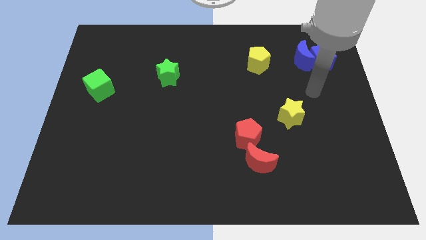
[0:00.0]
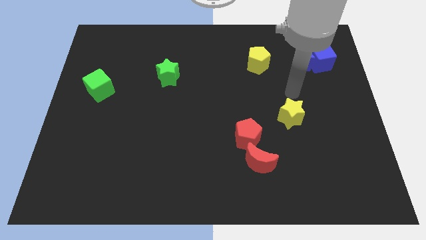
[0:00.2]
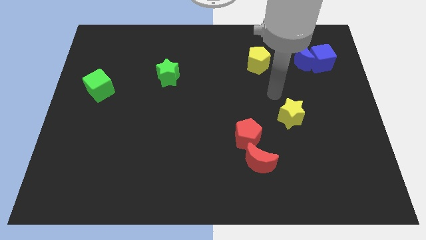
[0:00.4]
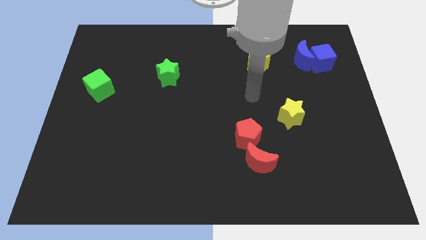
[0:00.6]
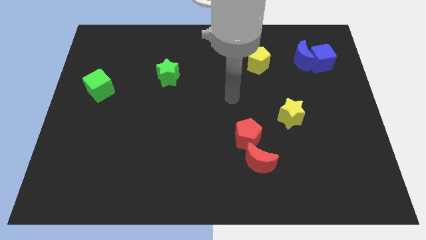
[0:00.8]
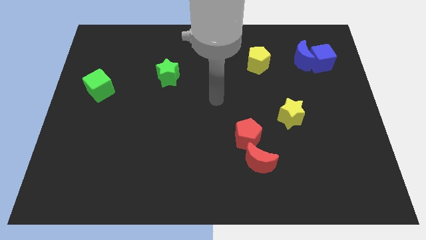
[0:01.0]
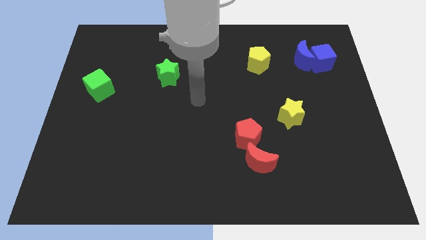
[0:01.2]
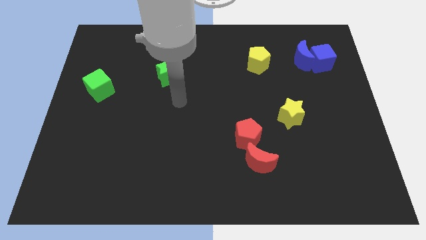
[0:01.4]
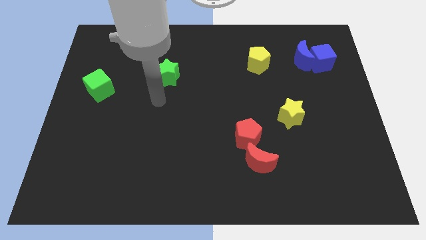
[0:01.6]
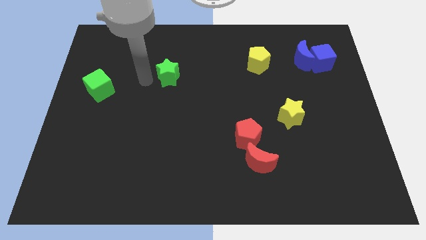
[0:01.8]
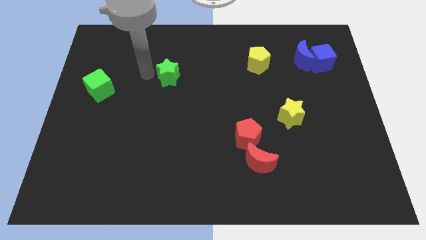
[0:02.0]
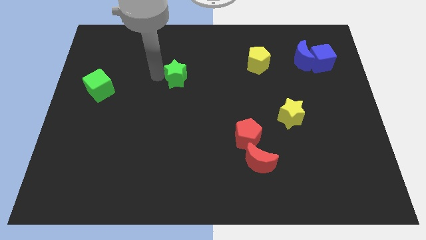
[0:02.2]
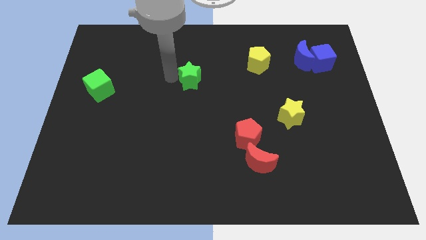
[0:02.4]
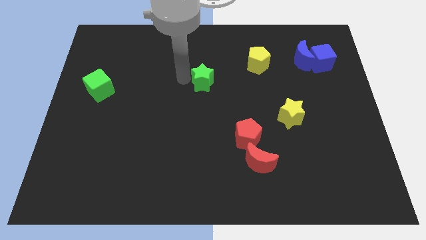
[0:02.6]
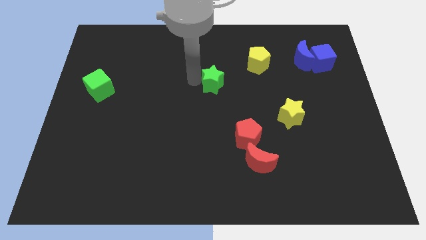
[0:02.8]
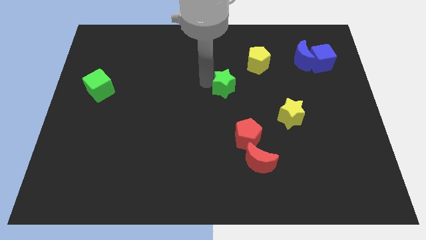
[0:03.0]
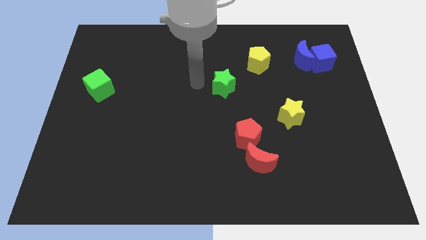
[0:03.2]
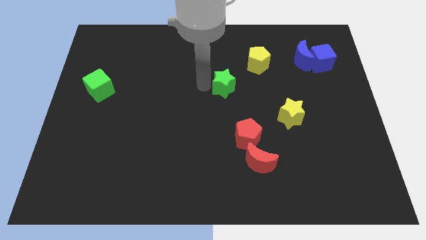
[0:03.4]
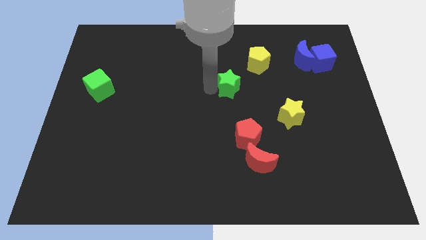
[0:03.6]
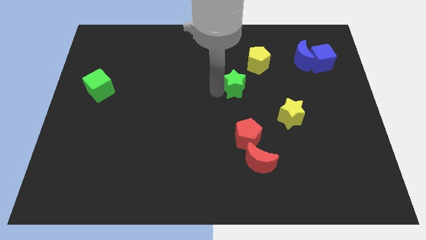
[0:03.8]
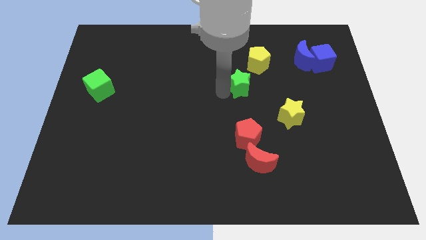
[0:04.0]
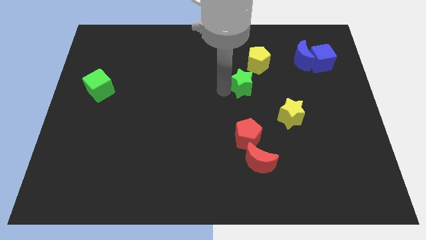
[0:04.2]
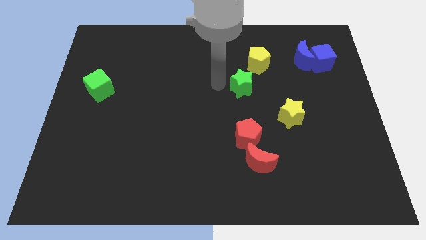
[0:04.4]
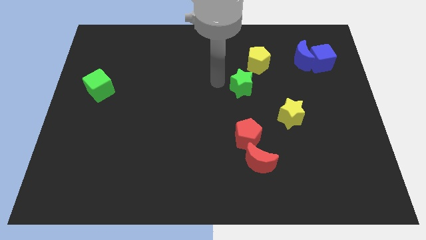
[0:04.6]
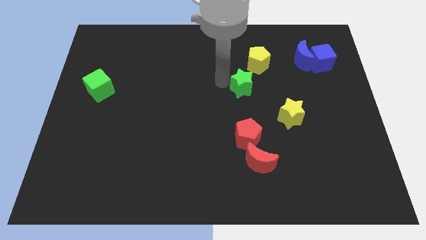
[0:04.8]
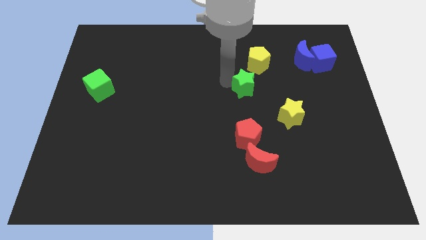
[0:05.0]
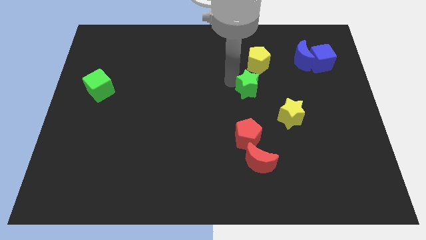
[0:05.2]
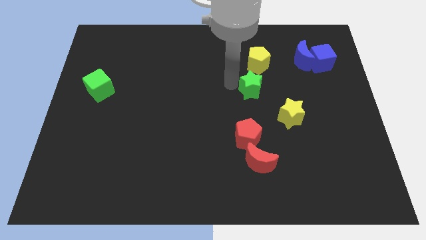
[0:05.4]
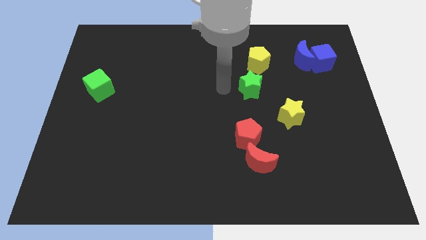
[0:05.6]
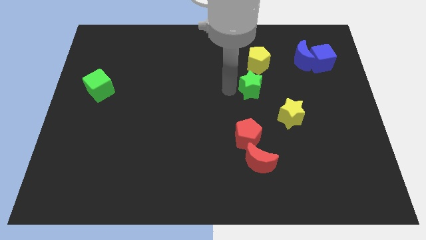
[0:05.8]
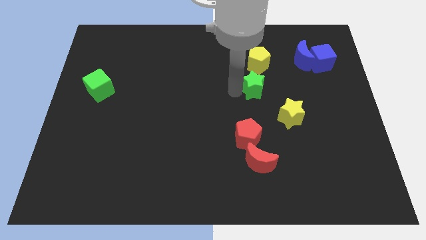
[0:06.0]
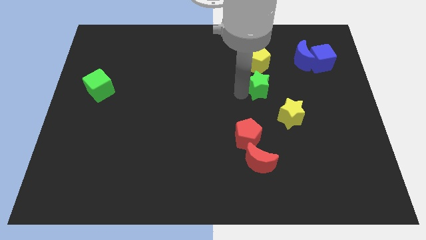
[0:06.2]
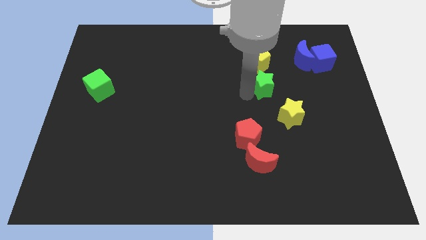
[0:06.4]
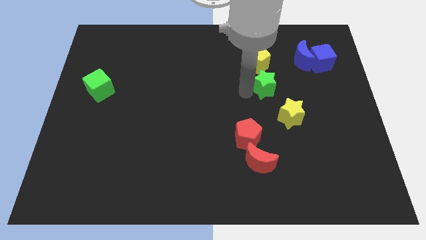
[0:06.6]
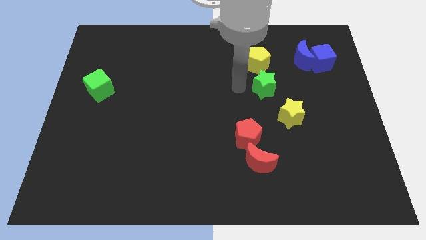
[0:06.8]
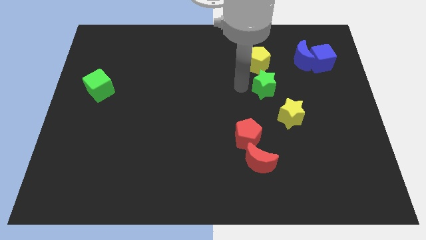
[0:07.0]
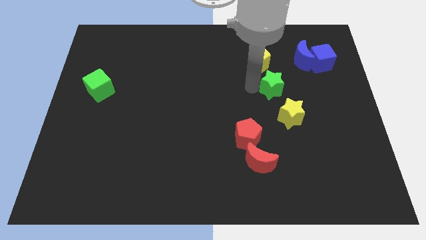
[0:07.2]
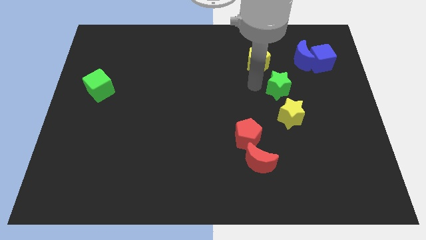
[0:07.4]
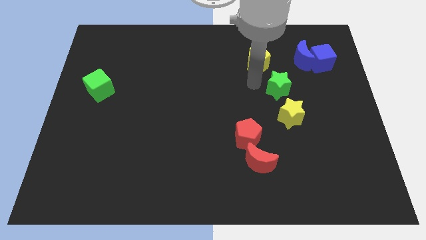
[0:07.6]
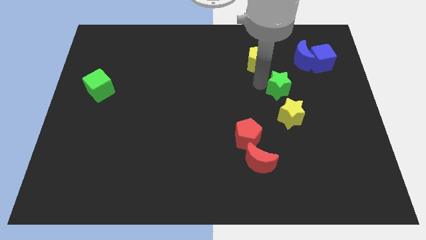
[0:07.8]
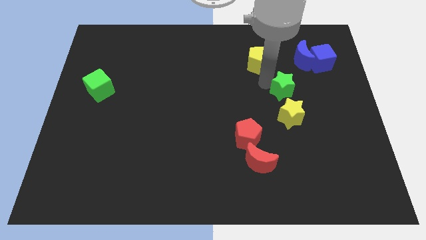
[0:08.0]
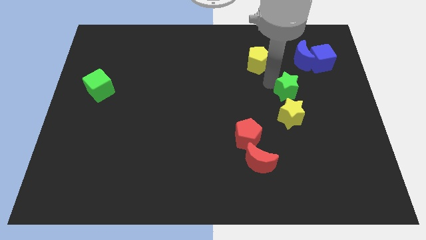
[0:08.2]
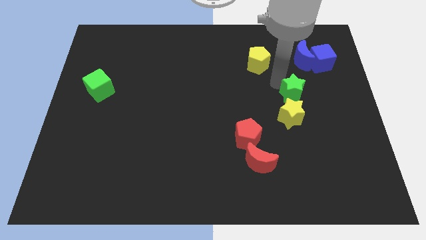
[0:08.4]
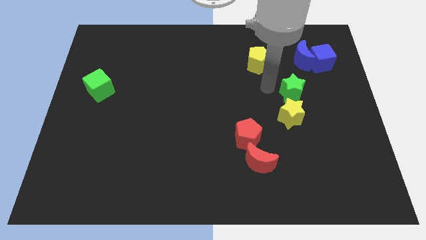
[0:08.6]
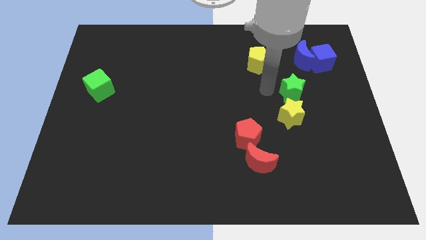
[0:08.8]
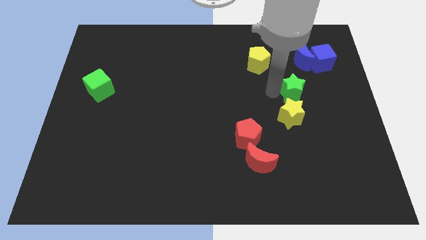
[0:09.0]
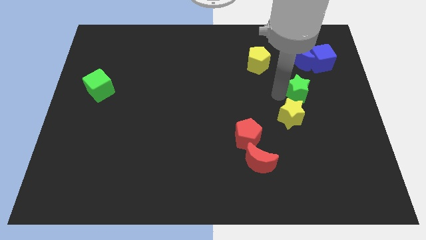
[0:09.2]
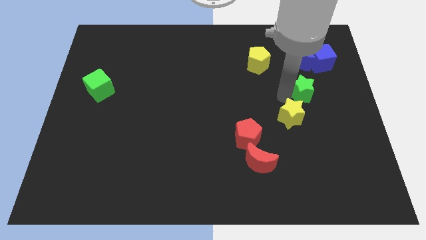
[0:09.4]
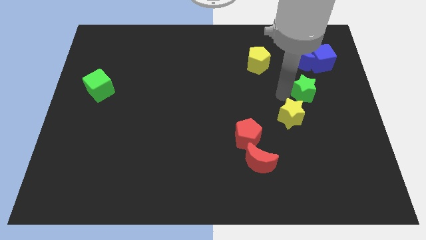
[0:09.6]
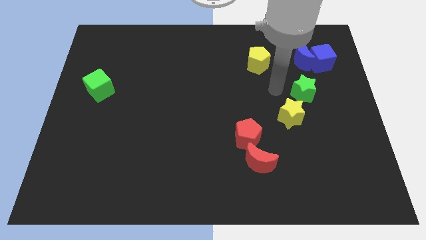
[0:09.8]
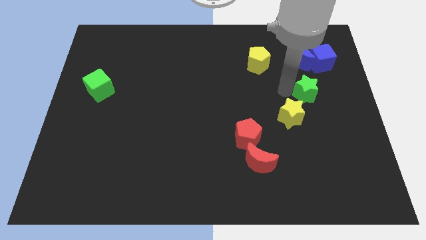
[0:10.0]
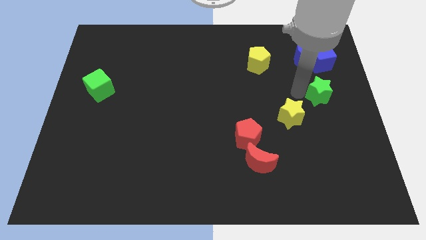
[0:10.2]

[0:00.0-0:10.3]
move the green star to the right side of the board

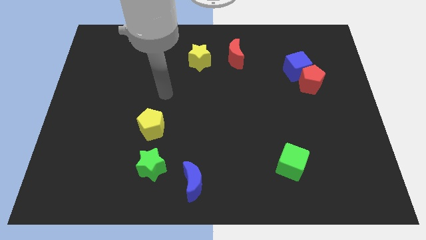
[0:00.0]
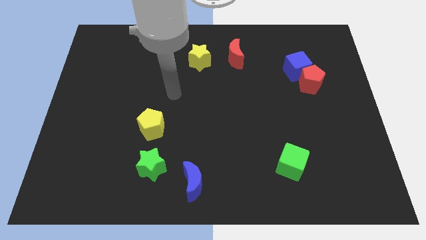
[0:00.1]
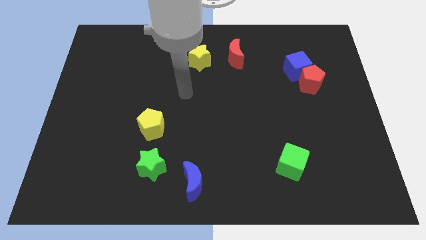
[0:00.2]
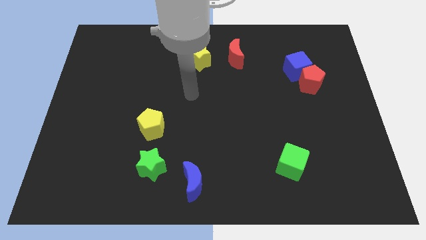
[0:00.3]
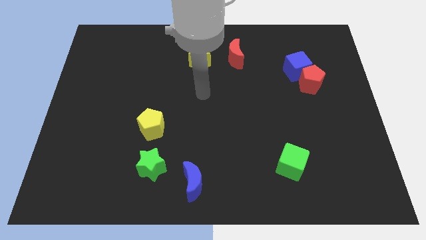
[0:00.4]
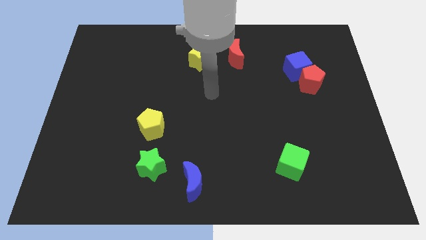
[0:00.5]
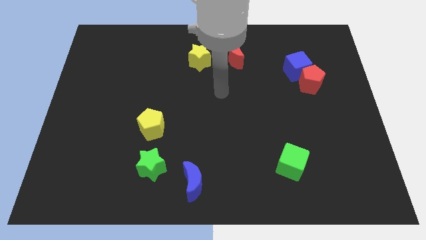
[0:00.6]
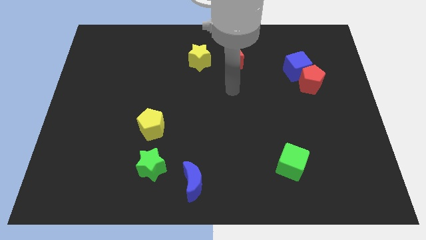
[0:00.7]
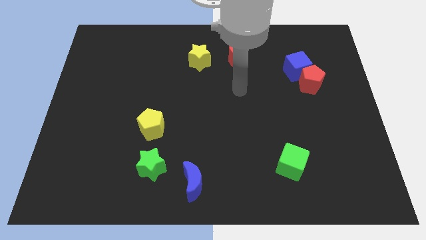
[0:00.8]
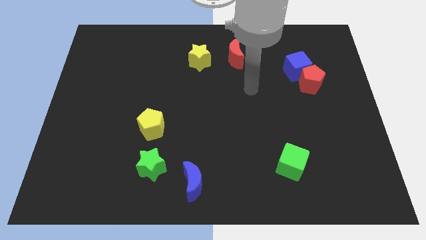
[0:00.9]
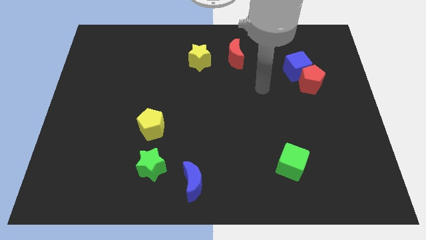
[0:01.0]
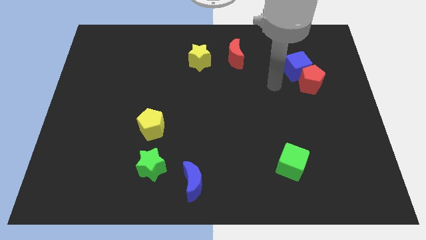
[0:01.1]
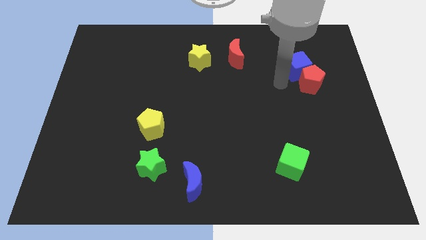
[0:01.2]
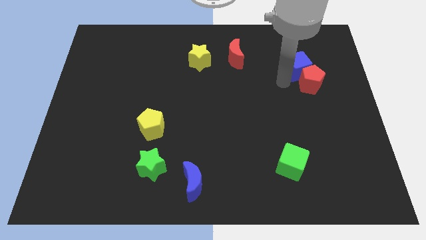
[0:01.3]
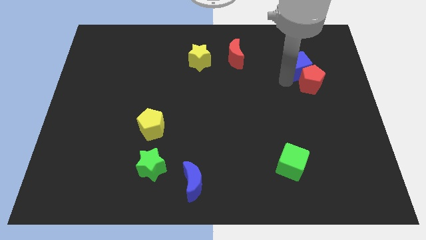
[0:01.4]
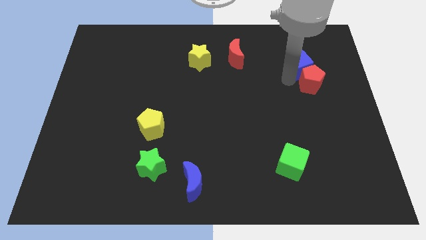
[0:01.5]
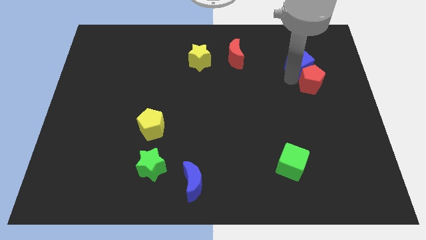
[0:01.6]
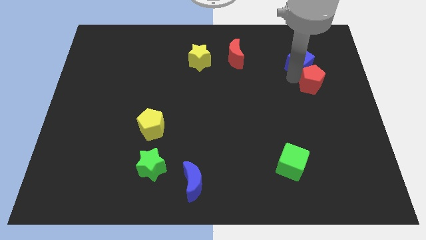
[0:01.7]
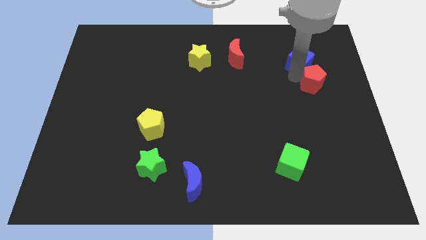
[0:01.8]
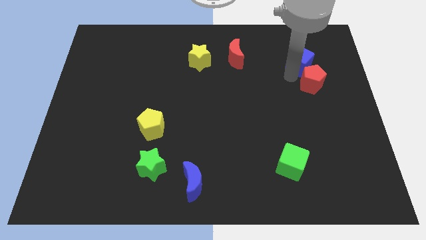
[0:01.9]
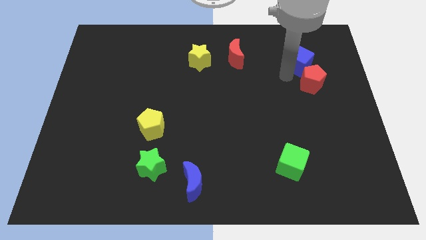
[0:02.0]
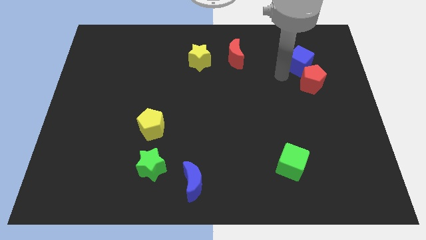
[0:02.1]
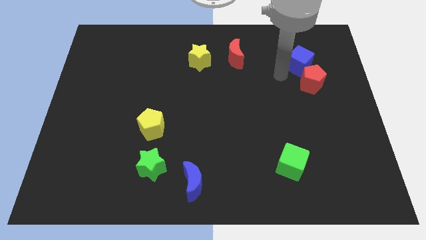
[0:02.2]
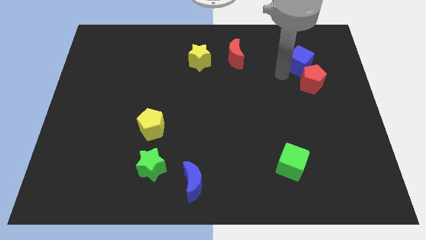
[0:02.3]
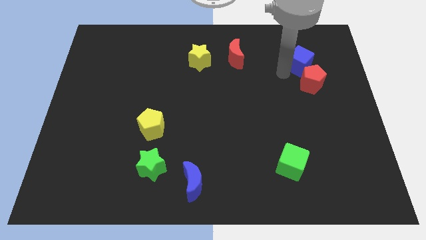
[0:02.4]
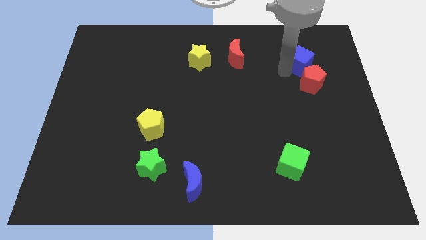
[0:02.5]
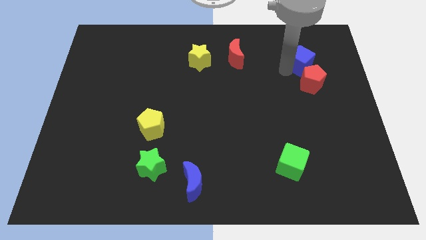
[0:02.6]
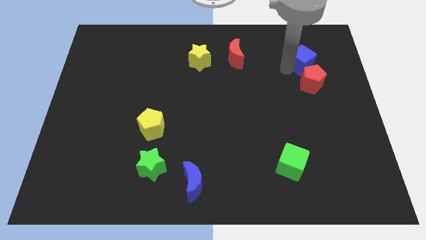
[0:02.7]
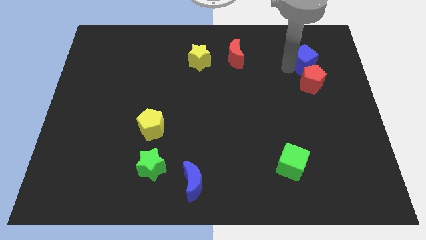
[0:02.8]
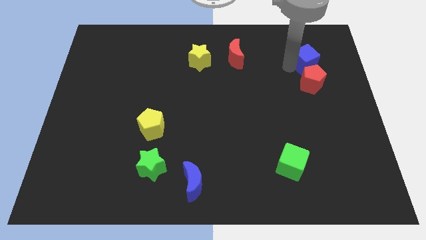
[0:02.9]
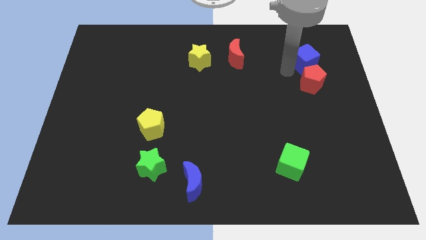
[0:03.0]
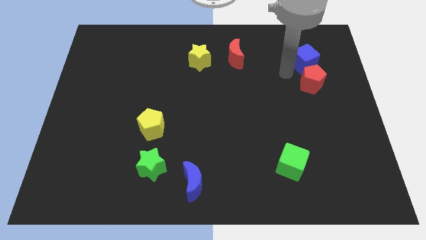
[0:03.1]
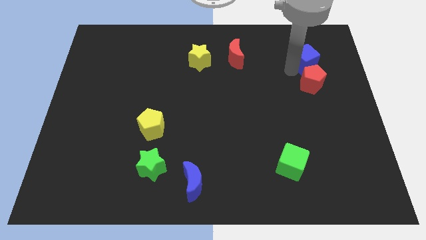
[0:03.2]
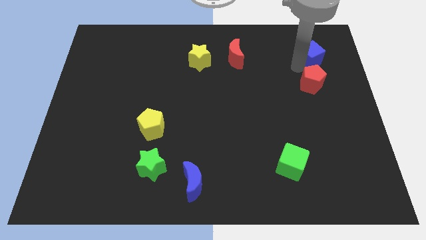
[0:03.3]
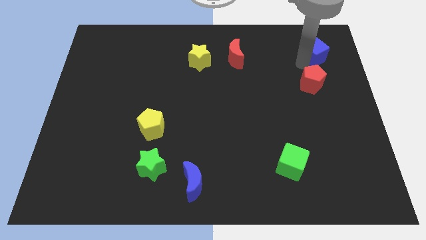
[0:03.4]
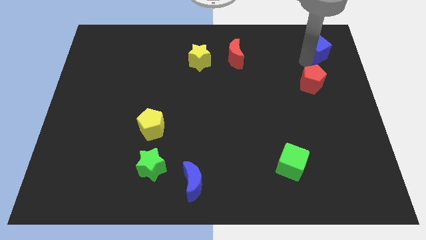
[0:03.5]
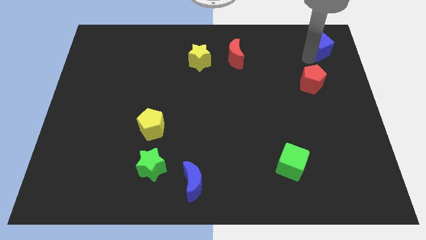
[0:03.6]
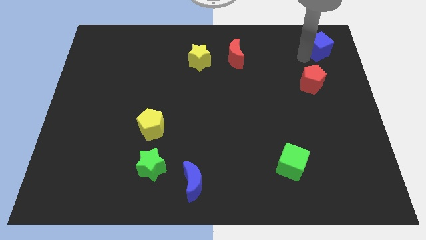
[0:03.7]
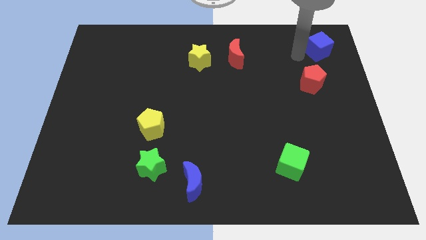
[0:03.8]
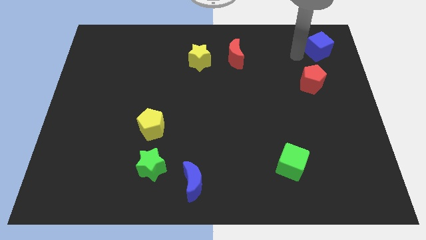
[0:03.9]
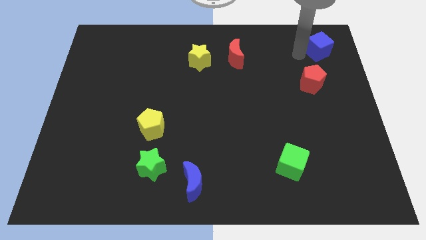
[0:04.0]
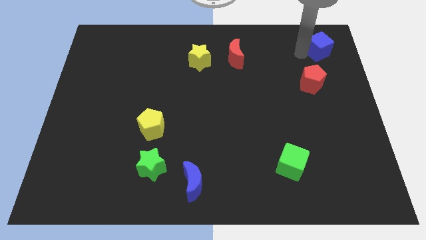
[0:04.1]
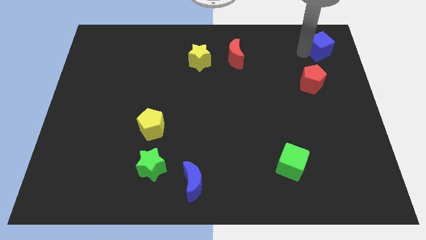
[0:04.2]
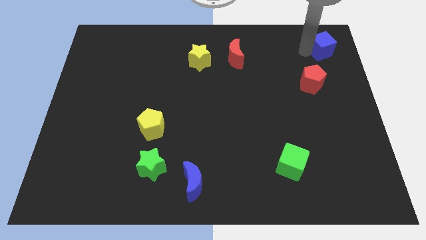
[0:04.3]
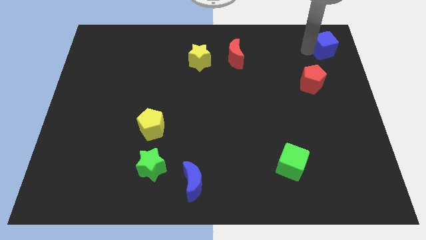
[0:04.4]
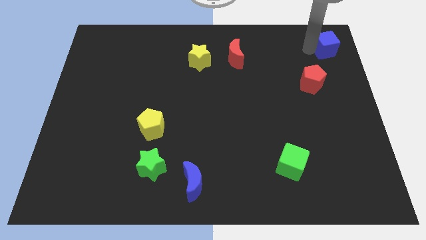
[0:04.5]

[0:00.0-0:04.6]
slide the blue cube to the top right of the board
